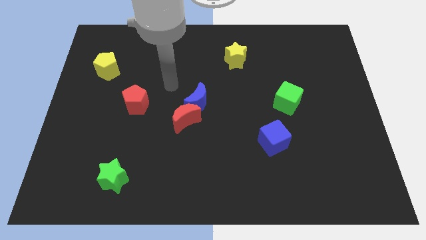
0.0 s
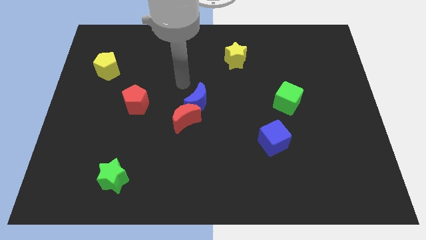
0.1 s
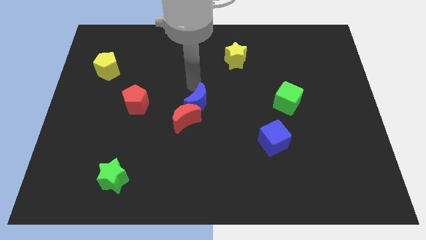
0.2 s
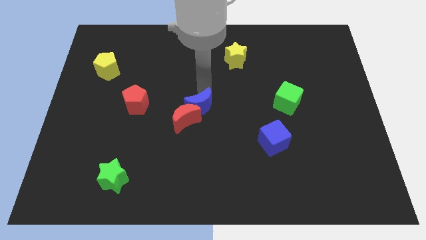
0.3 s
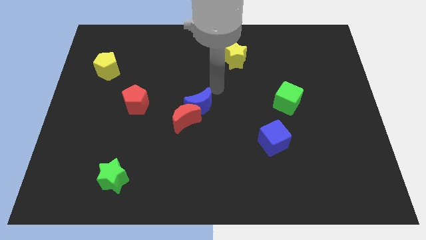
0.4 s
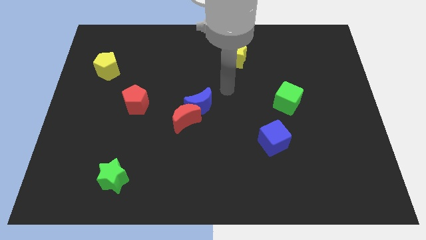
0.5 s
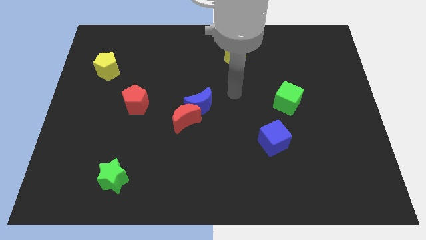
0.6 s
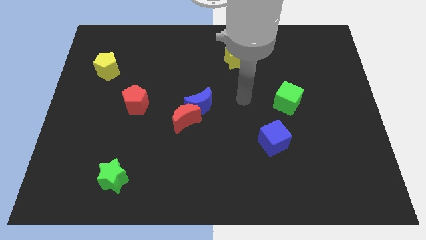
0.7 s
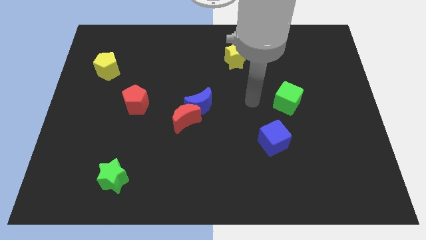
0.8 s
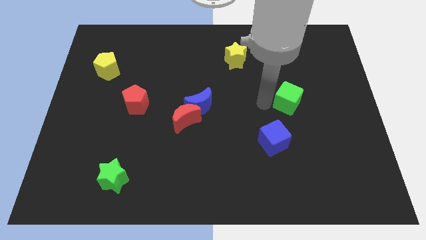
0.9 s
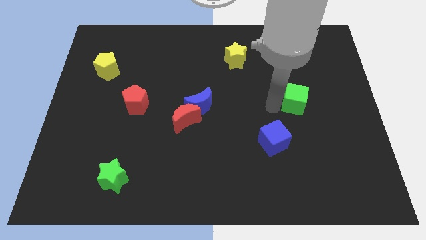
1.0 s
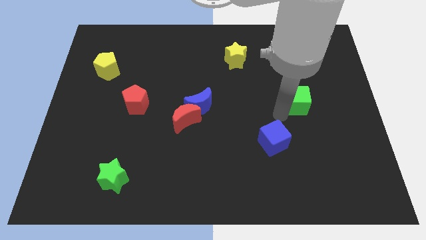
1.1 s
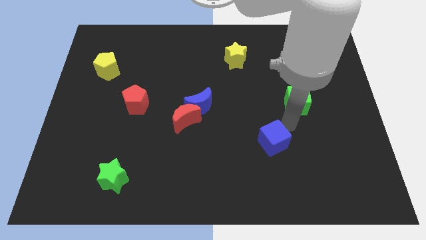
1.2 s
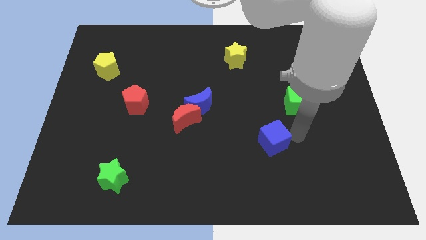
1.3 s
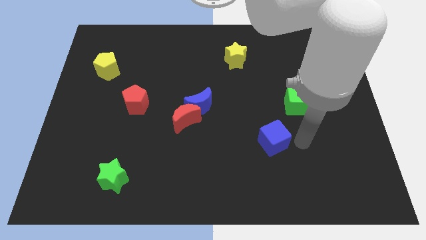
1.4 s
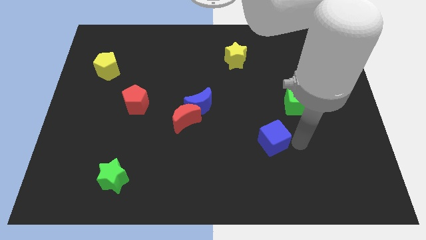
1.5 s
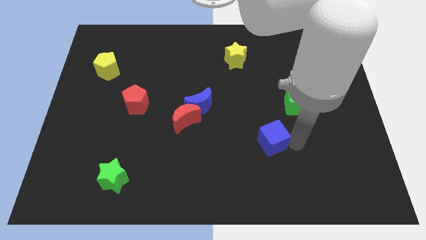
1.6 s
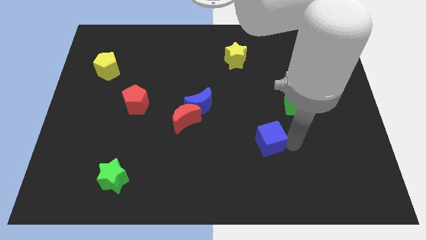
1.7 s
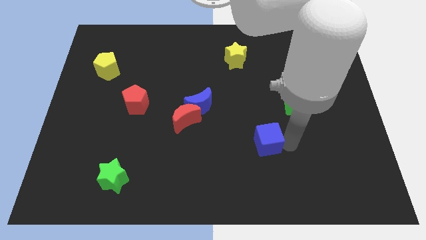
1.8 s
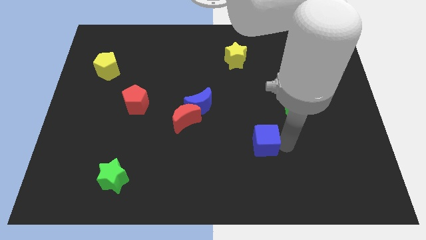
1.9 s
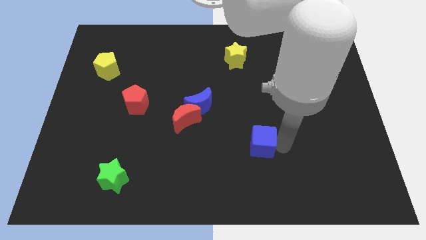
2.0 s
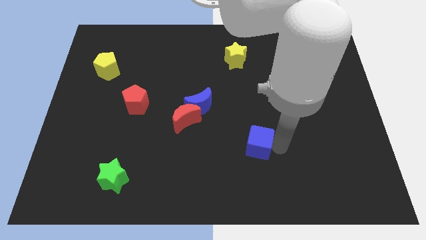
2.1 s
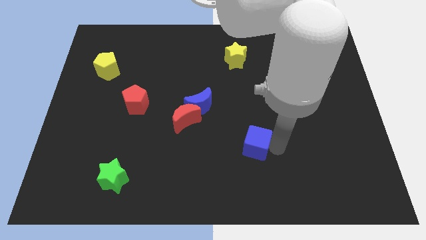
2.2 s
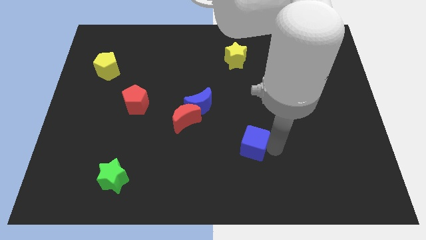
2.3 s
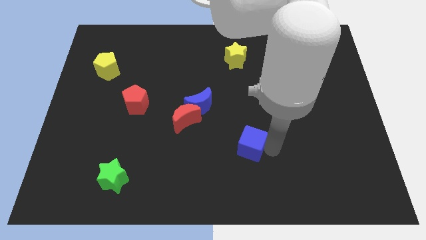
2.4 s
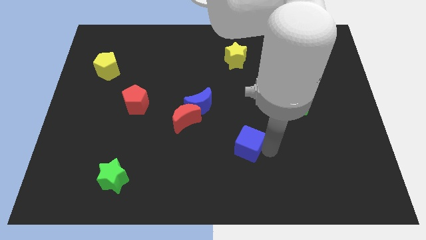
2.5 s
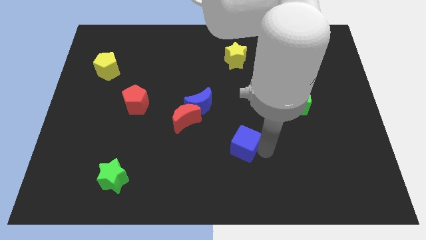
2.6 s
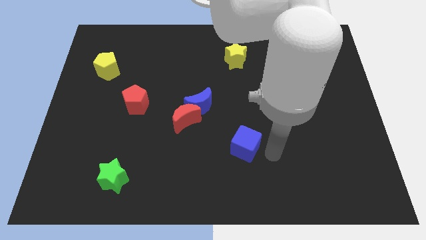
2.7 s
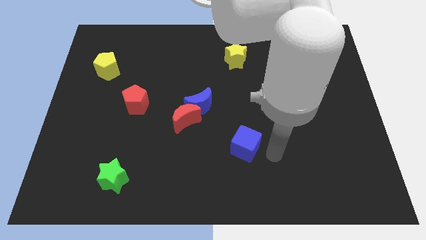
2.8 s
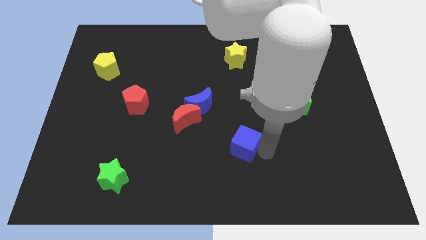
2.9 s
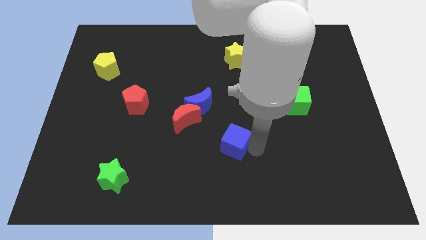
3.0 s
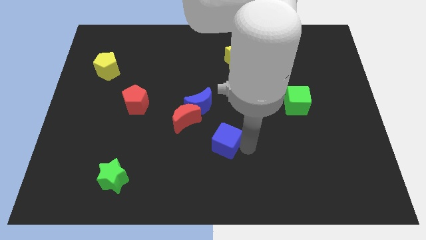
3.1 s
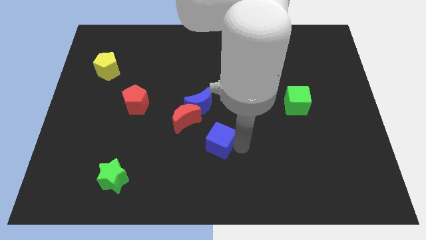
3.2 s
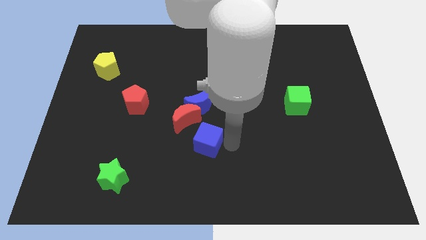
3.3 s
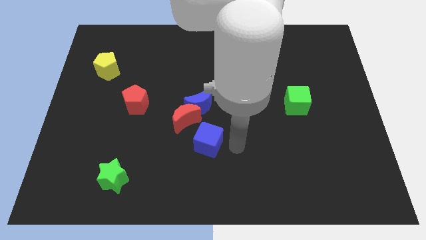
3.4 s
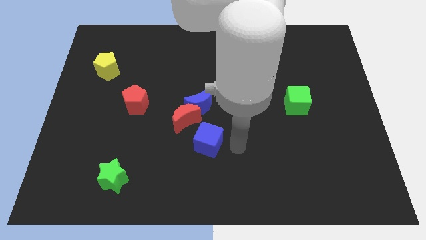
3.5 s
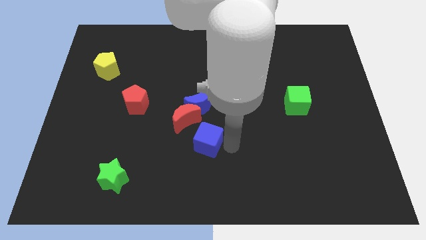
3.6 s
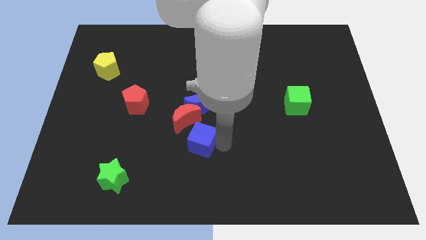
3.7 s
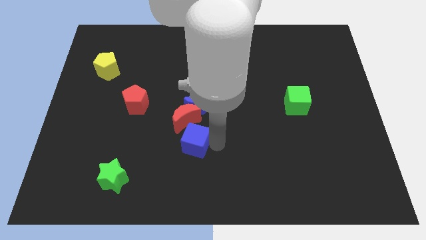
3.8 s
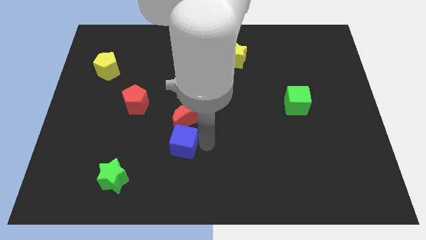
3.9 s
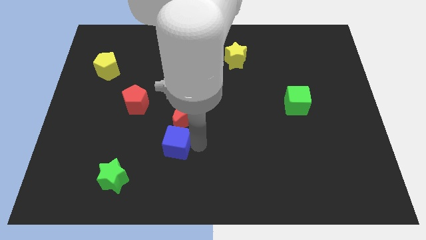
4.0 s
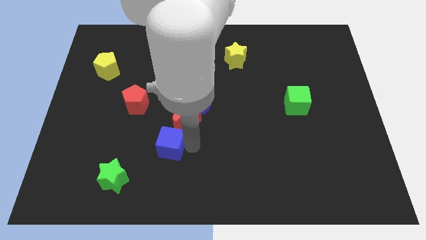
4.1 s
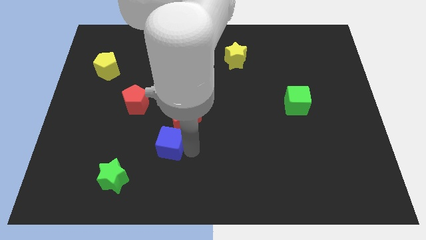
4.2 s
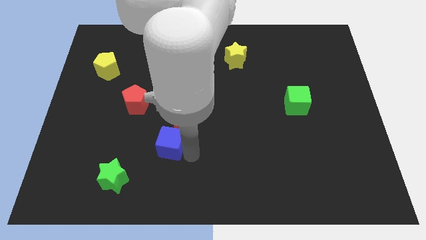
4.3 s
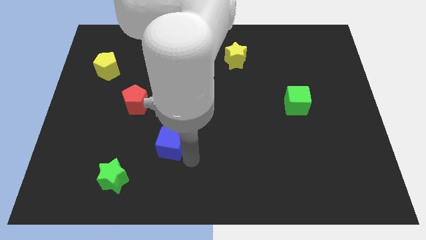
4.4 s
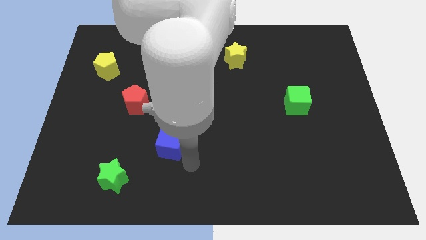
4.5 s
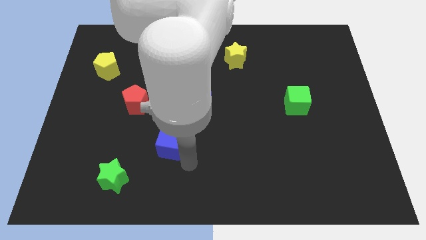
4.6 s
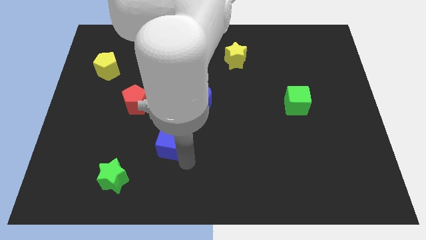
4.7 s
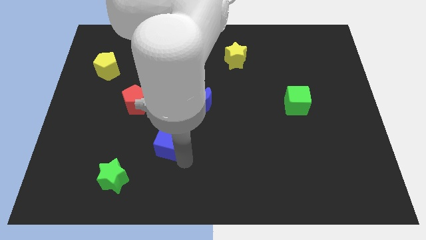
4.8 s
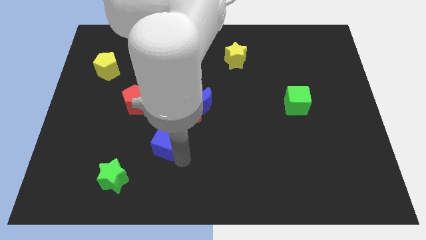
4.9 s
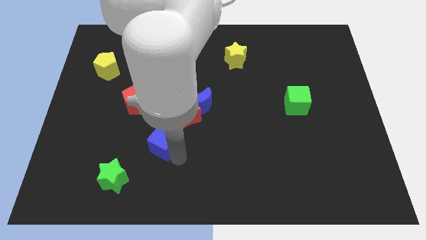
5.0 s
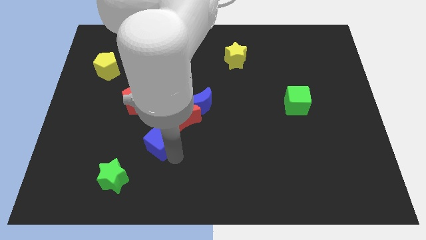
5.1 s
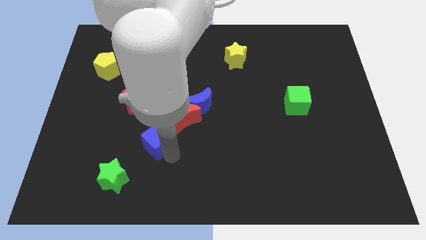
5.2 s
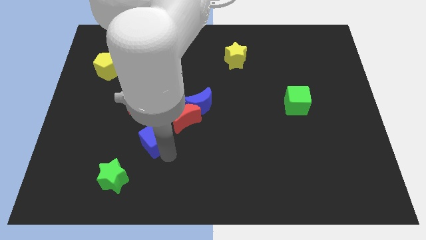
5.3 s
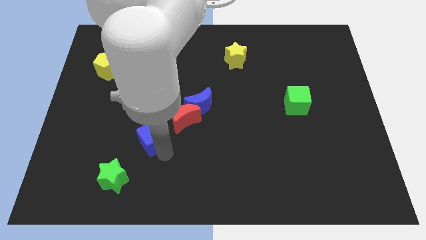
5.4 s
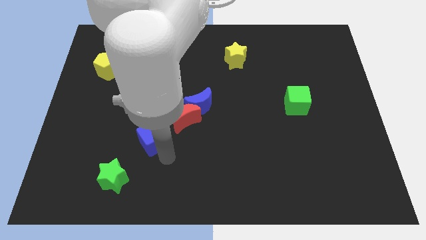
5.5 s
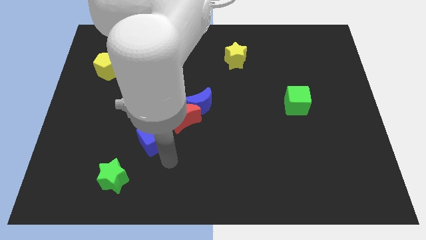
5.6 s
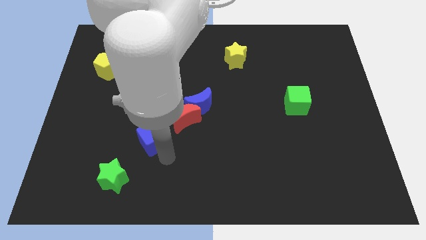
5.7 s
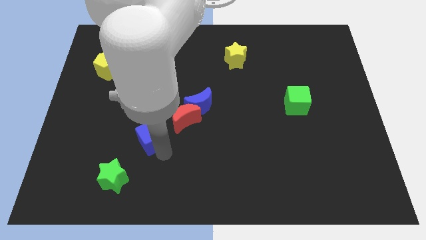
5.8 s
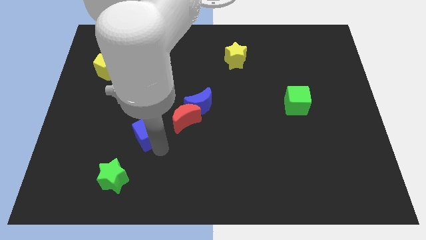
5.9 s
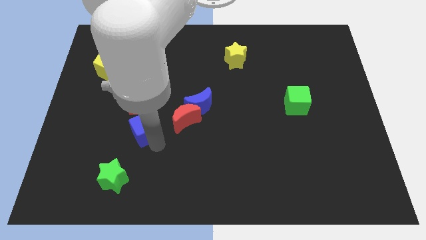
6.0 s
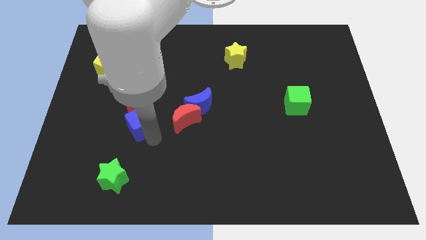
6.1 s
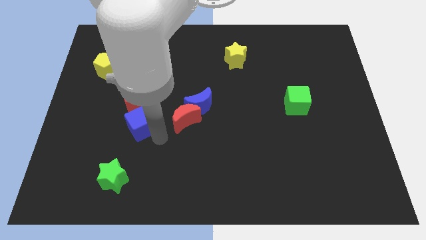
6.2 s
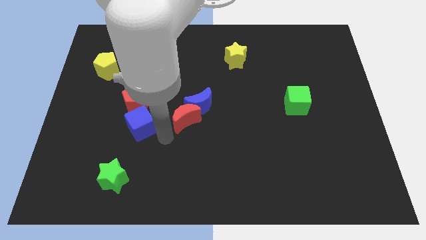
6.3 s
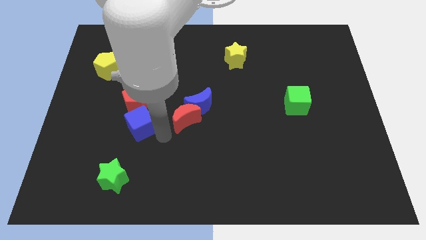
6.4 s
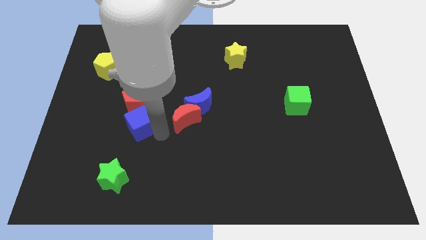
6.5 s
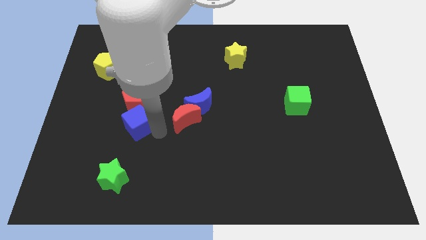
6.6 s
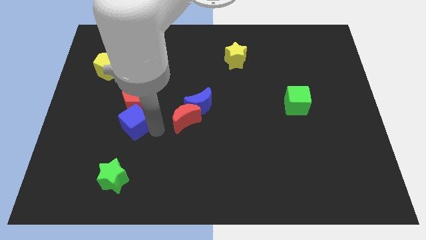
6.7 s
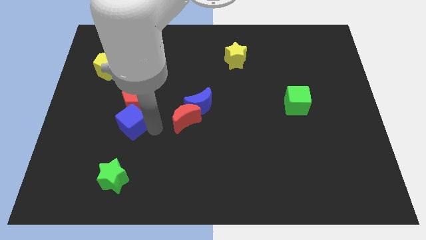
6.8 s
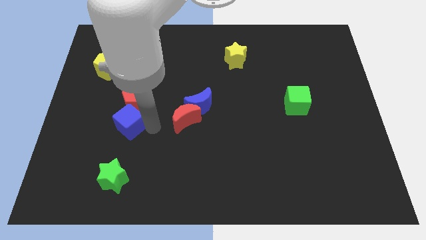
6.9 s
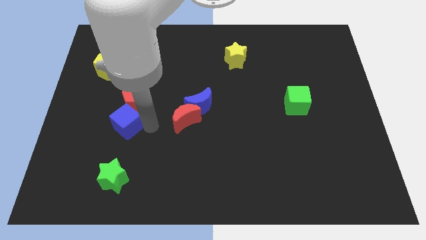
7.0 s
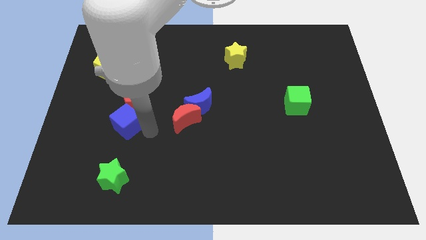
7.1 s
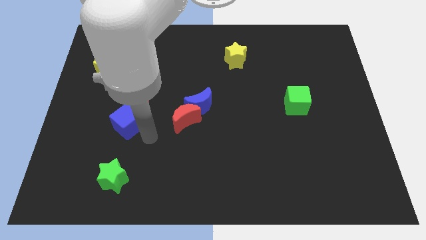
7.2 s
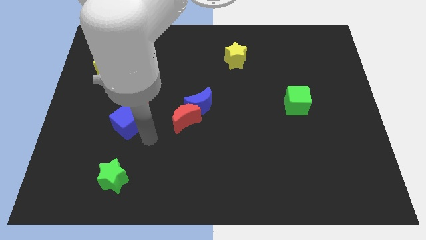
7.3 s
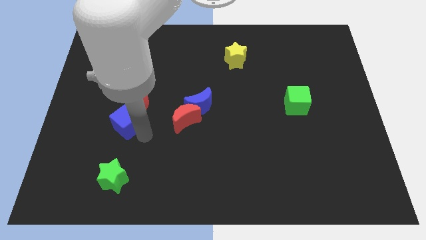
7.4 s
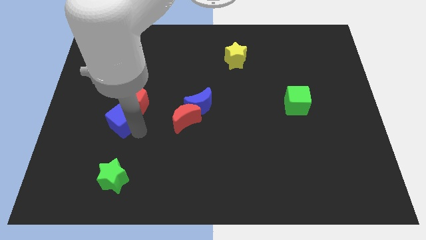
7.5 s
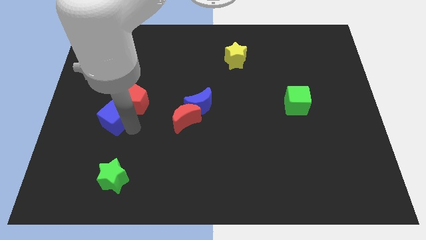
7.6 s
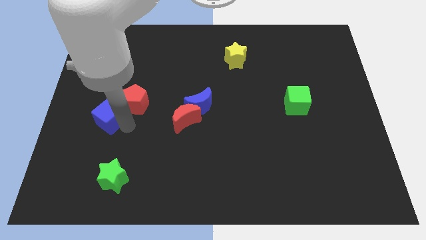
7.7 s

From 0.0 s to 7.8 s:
push the blue cube just left of the red pentagon
